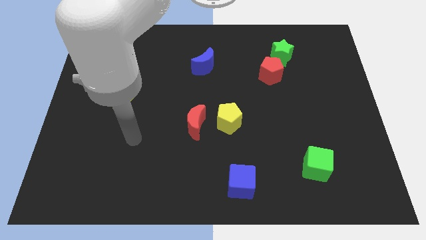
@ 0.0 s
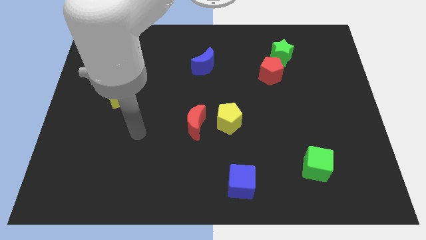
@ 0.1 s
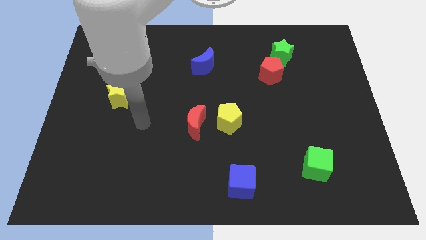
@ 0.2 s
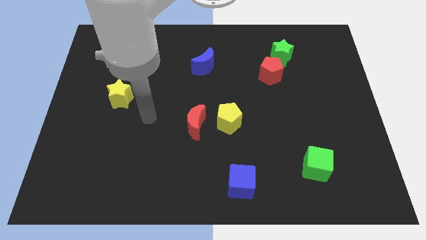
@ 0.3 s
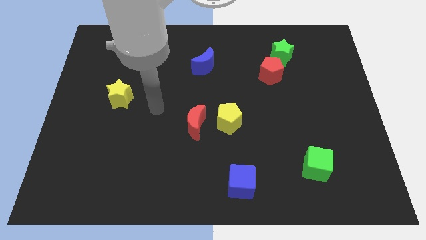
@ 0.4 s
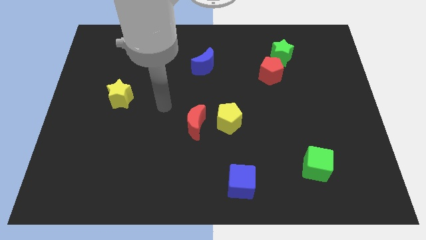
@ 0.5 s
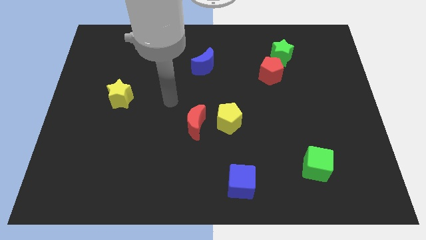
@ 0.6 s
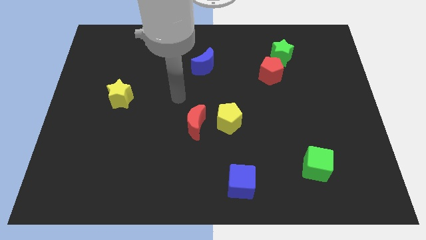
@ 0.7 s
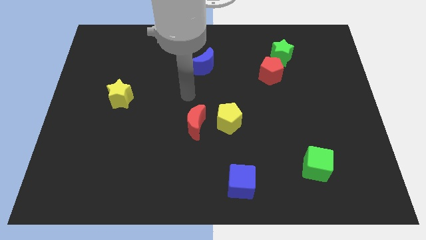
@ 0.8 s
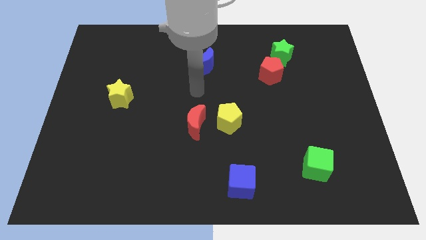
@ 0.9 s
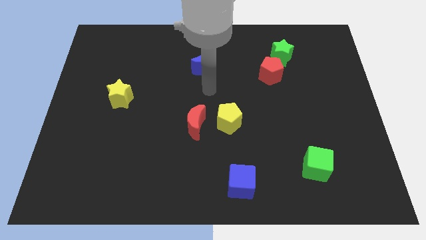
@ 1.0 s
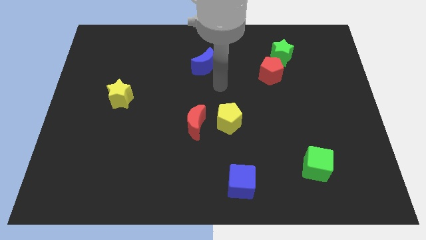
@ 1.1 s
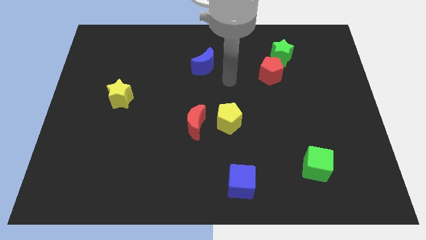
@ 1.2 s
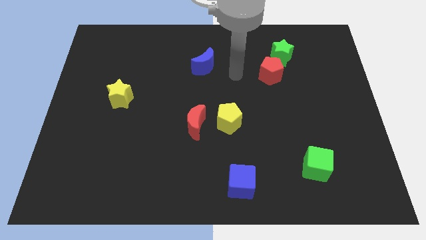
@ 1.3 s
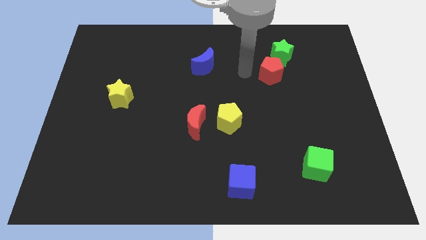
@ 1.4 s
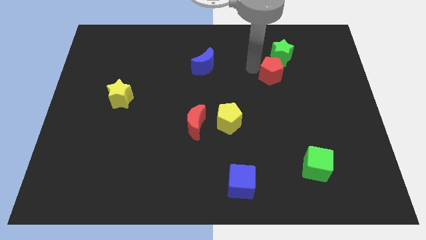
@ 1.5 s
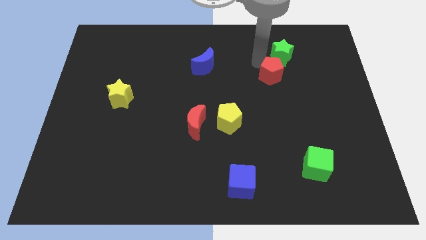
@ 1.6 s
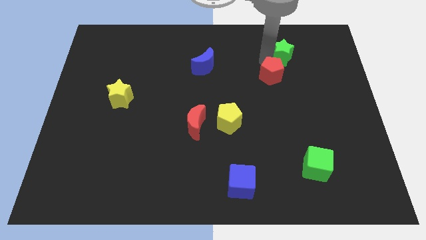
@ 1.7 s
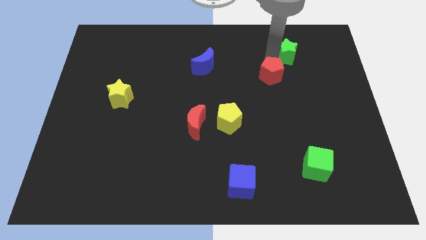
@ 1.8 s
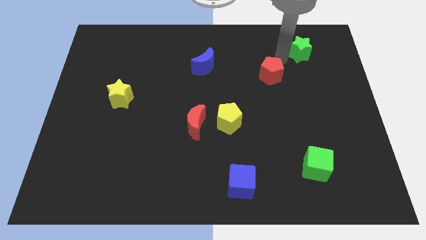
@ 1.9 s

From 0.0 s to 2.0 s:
pull the red pentagon apart from the green star

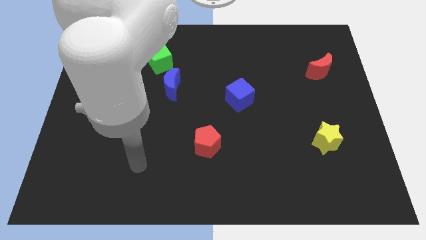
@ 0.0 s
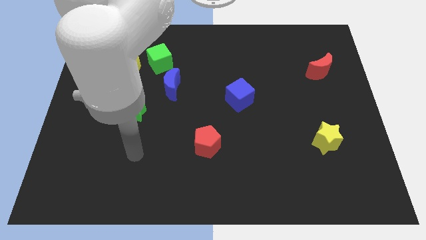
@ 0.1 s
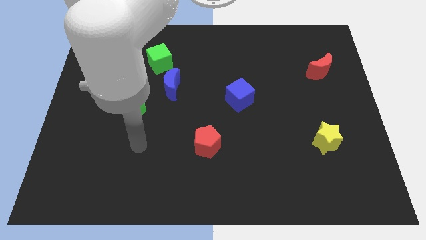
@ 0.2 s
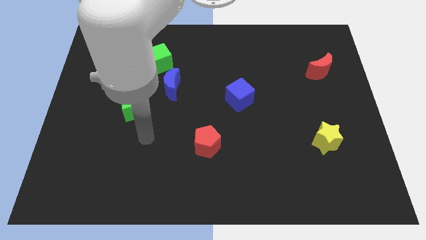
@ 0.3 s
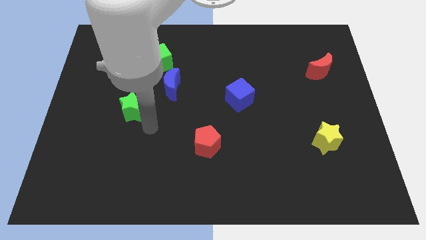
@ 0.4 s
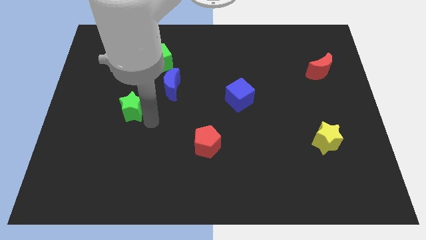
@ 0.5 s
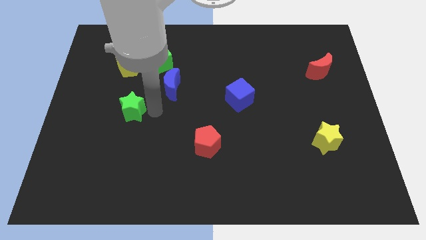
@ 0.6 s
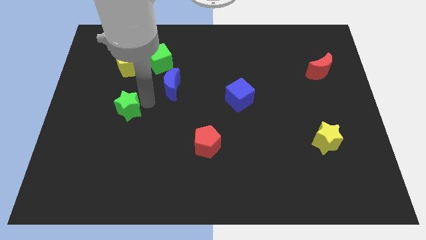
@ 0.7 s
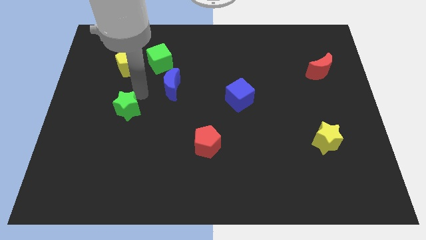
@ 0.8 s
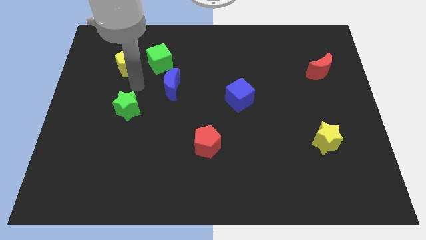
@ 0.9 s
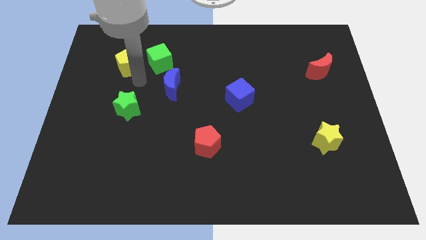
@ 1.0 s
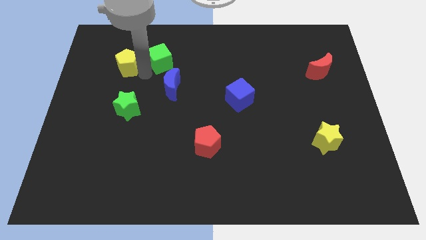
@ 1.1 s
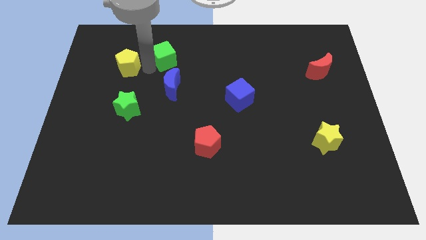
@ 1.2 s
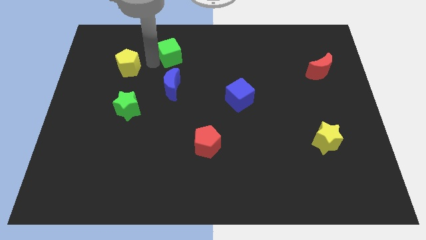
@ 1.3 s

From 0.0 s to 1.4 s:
pull the yellow pentagon apart from the green cube

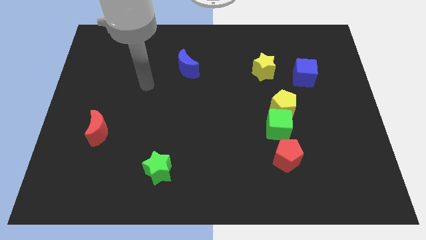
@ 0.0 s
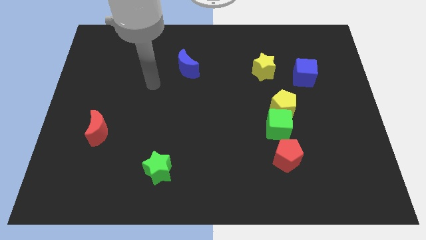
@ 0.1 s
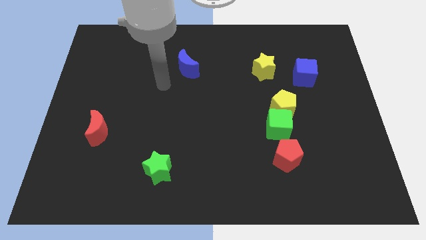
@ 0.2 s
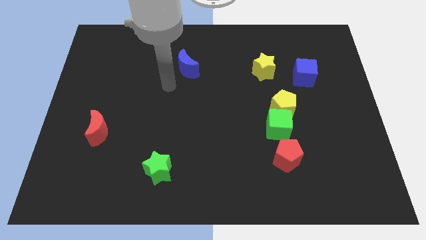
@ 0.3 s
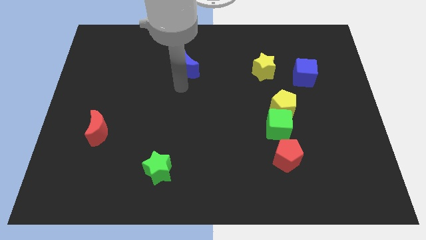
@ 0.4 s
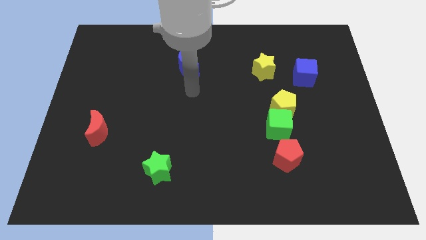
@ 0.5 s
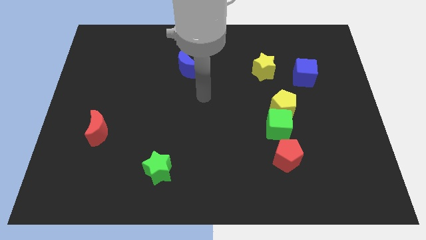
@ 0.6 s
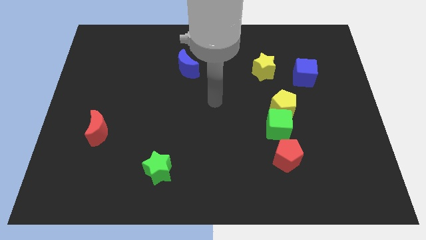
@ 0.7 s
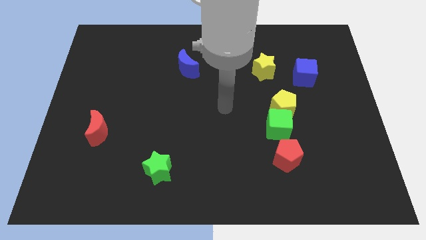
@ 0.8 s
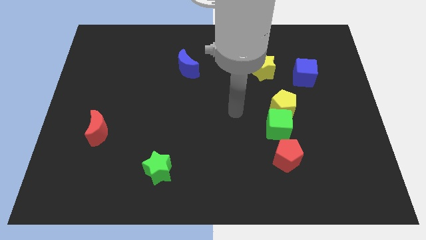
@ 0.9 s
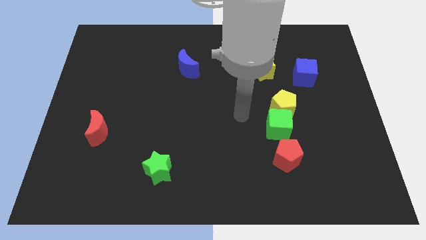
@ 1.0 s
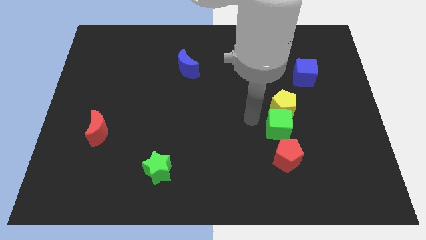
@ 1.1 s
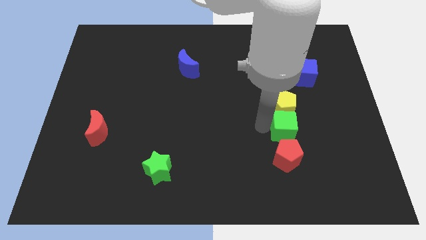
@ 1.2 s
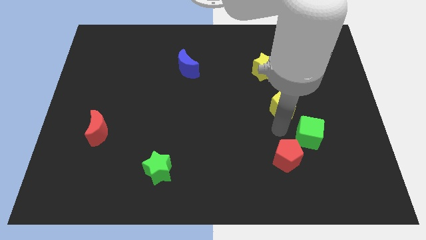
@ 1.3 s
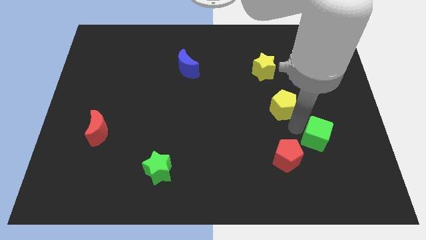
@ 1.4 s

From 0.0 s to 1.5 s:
separate the yellow pentagon from the green cube

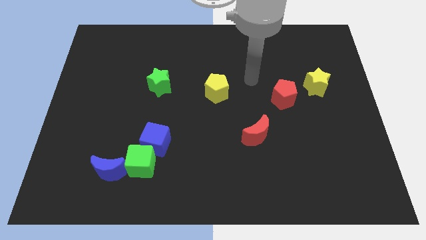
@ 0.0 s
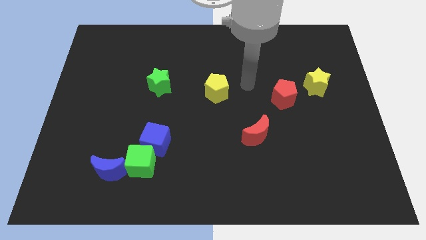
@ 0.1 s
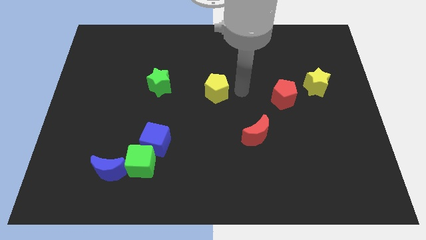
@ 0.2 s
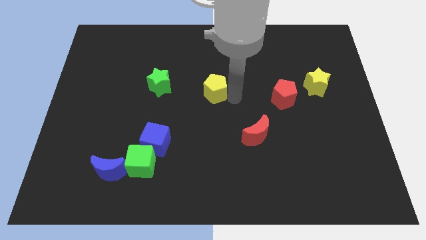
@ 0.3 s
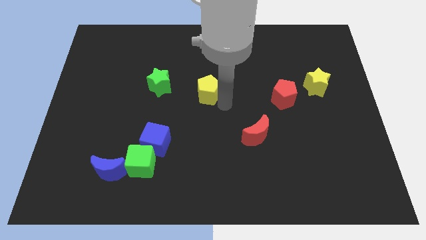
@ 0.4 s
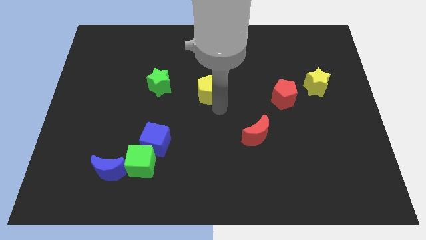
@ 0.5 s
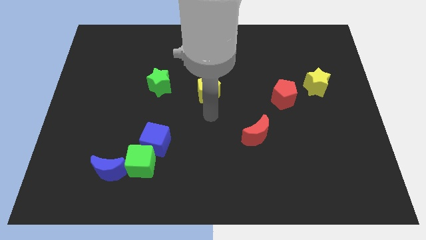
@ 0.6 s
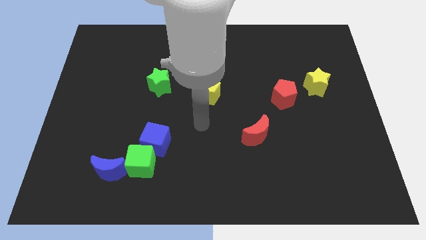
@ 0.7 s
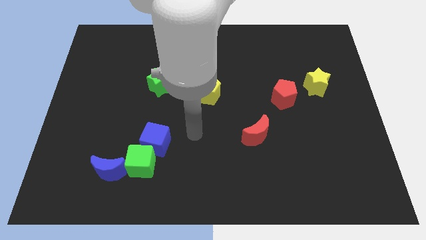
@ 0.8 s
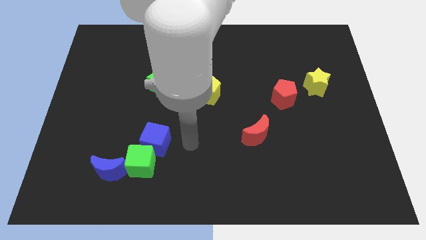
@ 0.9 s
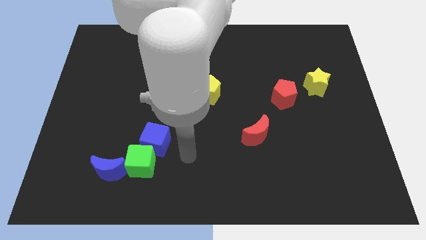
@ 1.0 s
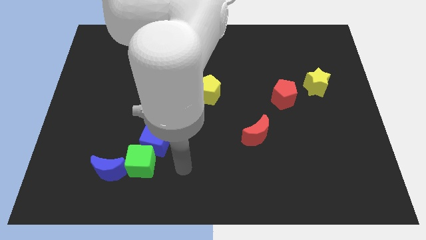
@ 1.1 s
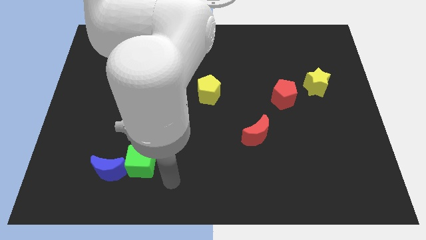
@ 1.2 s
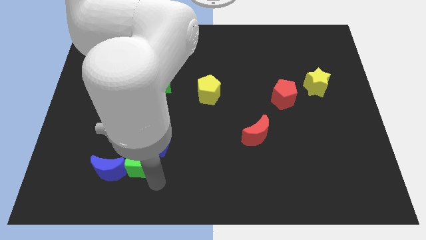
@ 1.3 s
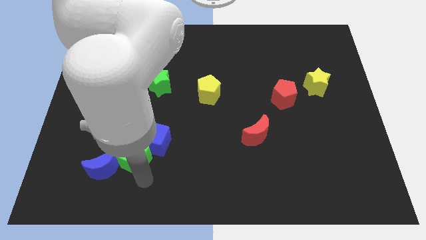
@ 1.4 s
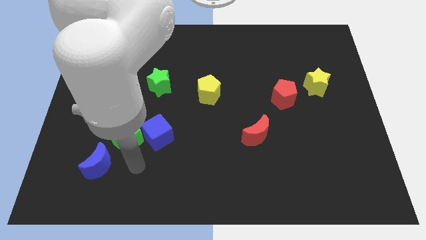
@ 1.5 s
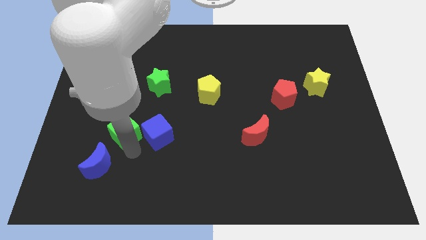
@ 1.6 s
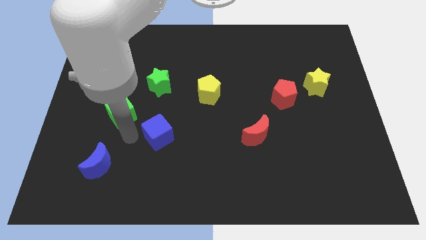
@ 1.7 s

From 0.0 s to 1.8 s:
move the blue cube away from the green cube

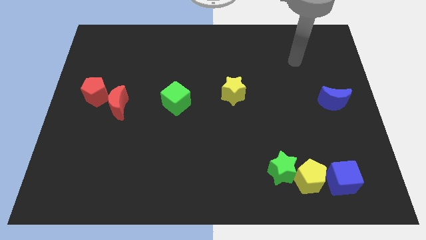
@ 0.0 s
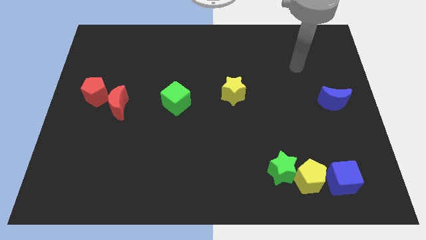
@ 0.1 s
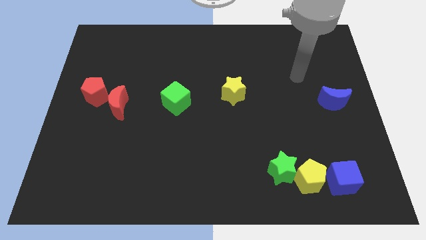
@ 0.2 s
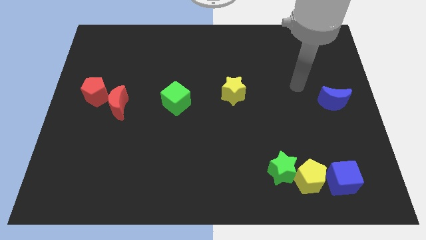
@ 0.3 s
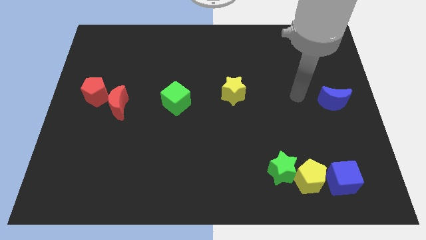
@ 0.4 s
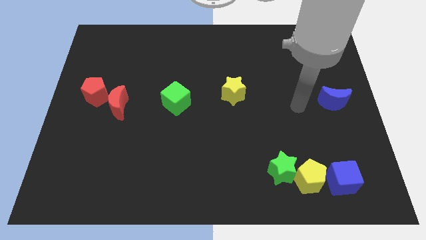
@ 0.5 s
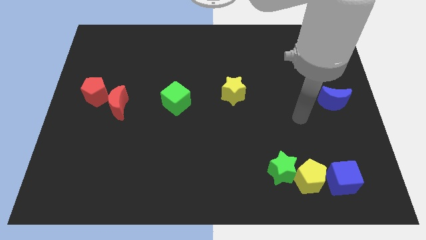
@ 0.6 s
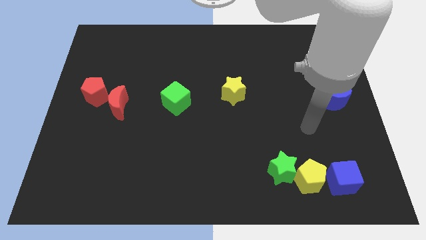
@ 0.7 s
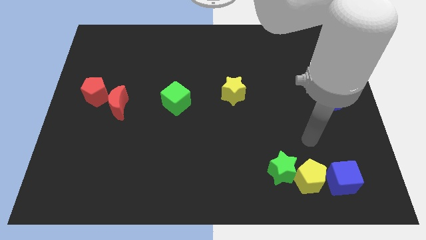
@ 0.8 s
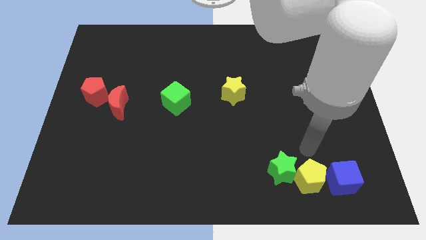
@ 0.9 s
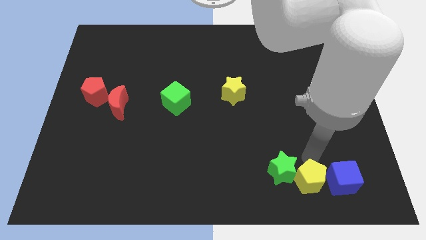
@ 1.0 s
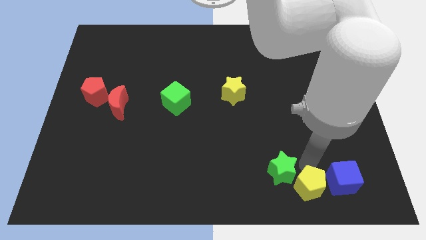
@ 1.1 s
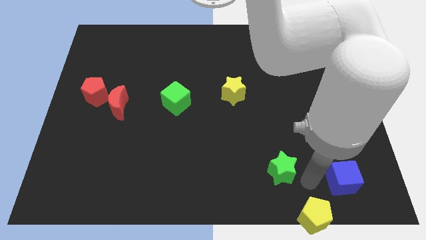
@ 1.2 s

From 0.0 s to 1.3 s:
move the green star away from the yellow pentagon

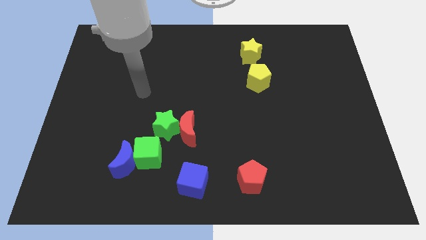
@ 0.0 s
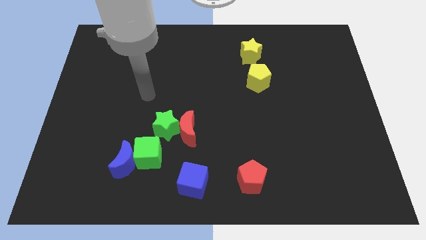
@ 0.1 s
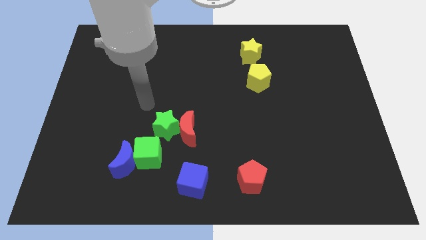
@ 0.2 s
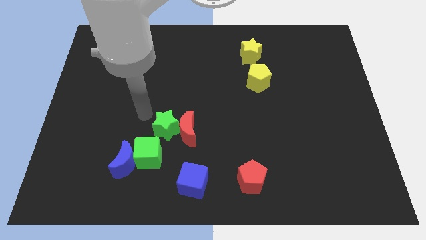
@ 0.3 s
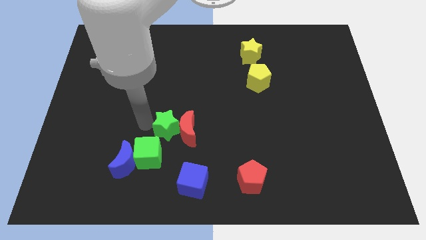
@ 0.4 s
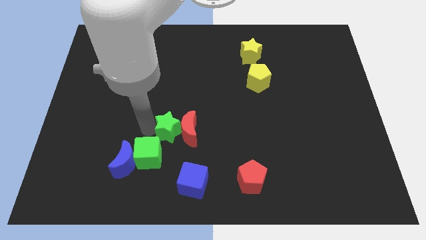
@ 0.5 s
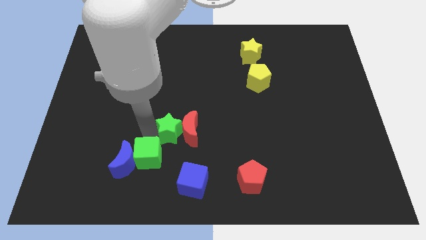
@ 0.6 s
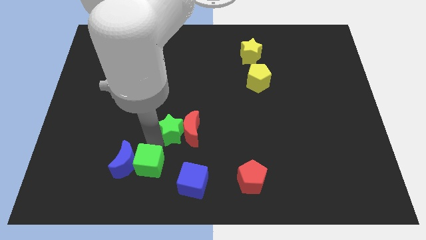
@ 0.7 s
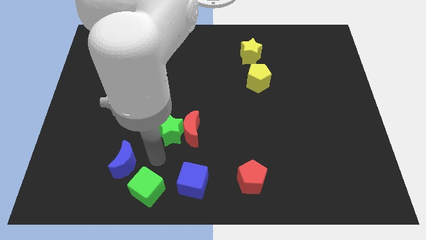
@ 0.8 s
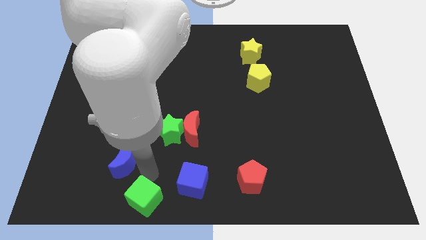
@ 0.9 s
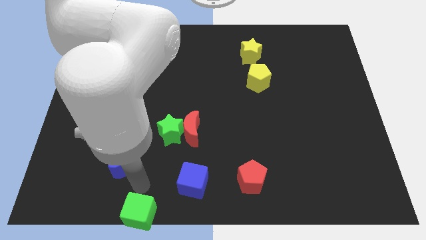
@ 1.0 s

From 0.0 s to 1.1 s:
move the blue moon away from the green cube

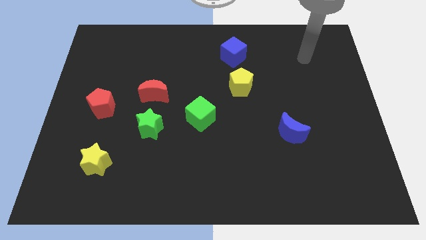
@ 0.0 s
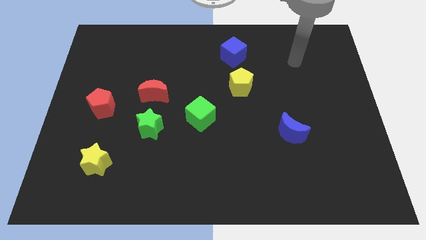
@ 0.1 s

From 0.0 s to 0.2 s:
pull the red moon apart from the green star
